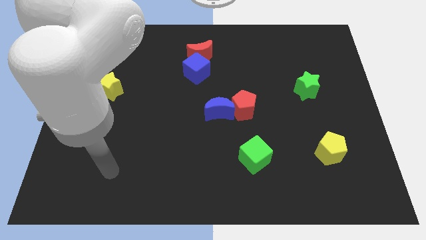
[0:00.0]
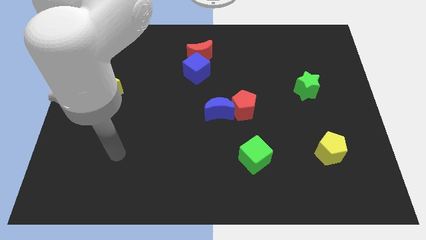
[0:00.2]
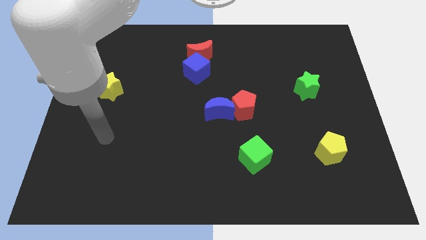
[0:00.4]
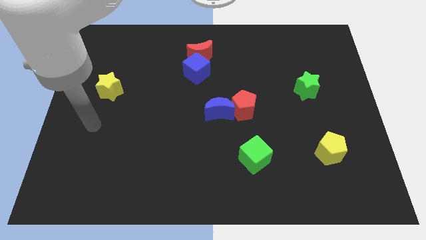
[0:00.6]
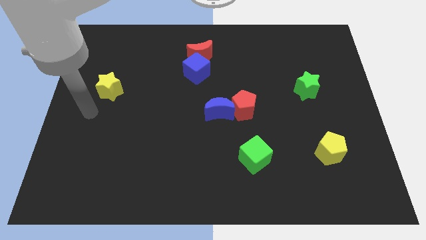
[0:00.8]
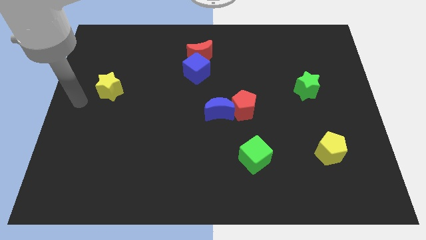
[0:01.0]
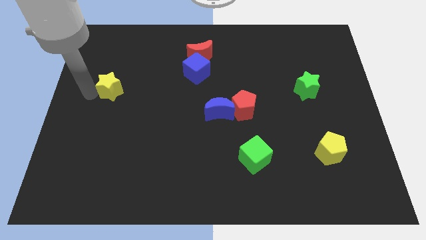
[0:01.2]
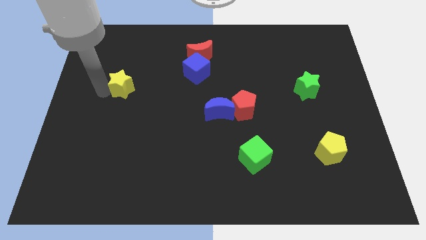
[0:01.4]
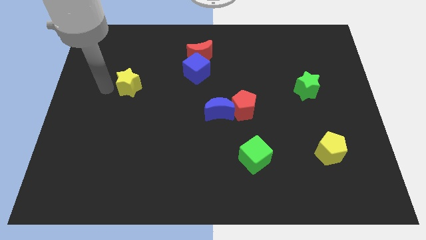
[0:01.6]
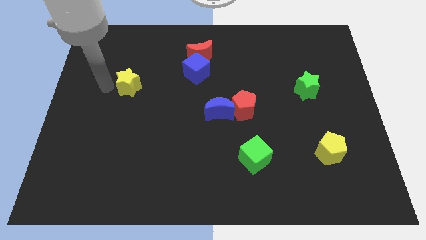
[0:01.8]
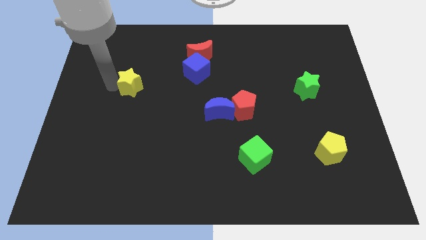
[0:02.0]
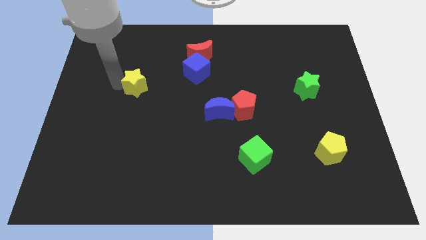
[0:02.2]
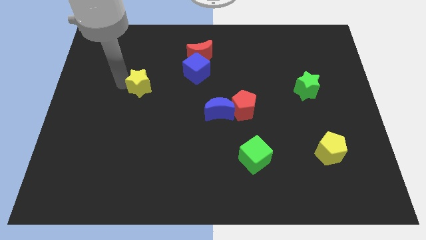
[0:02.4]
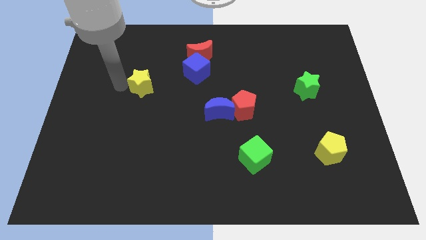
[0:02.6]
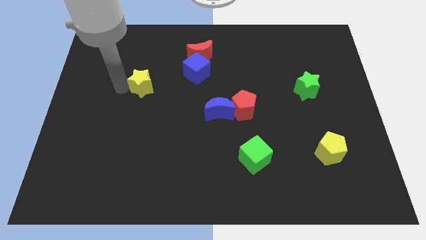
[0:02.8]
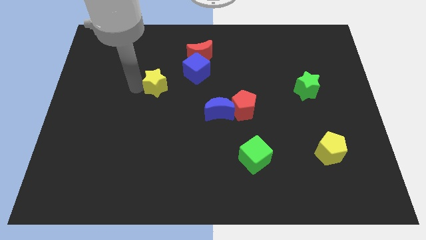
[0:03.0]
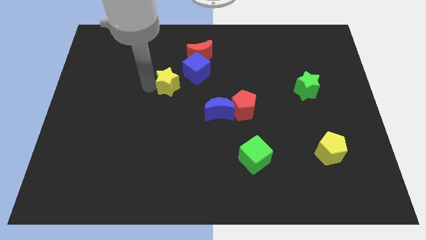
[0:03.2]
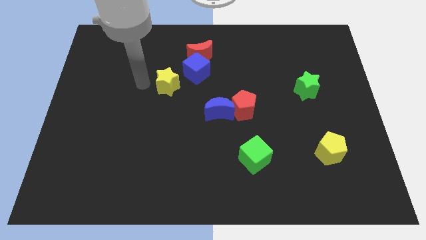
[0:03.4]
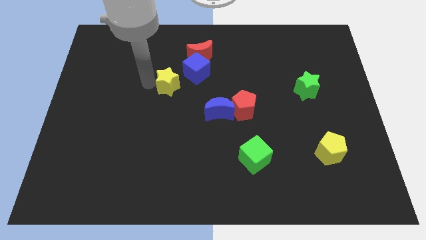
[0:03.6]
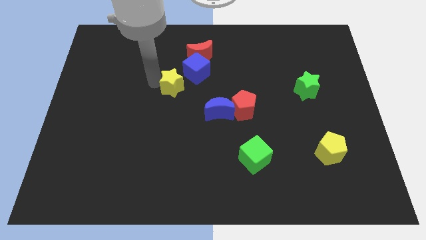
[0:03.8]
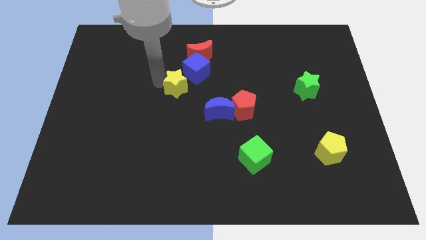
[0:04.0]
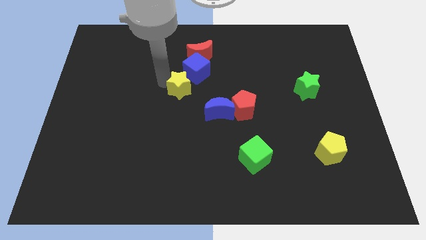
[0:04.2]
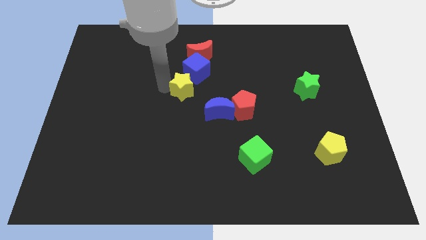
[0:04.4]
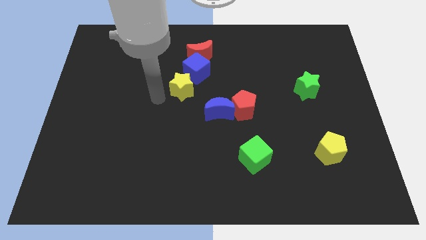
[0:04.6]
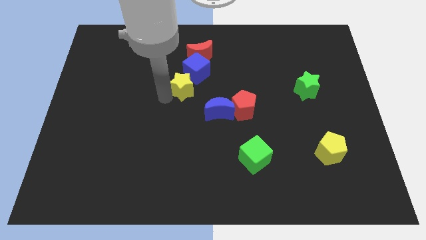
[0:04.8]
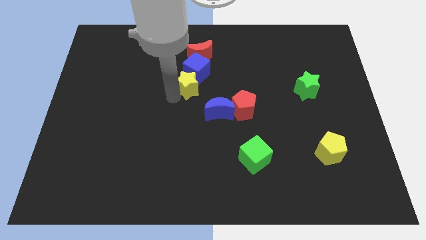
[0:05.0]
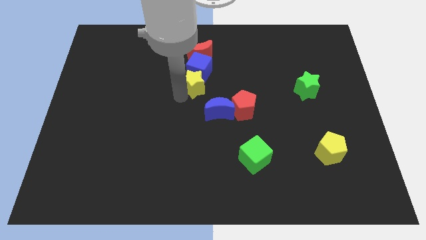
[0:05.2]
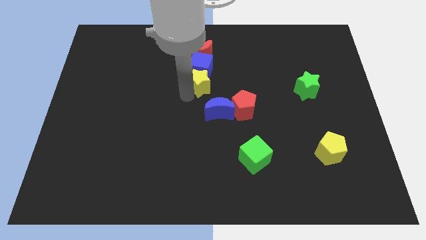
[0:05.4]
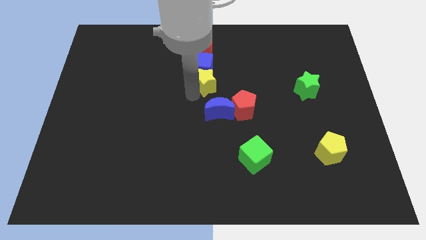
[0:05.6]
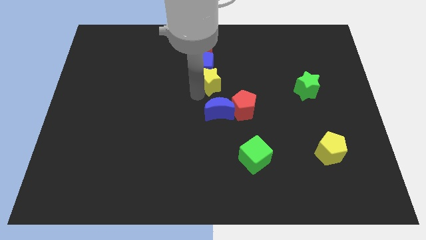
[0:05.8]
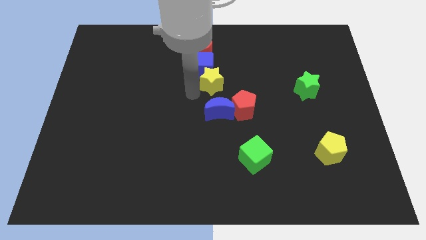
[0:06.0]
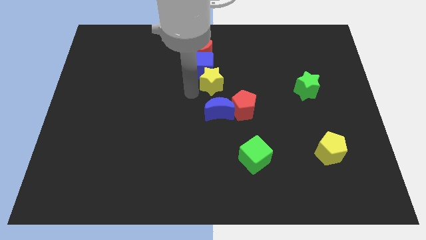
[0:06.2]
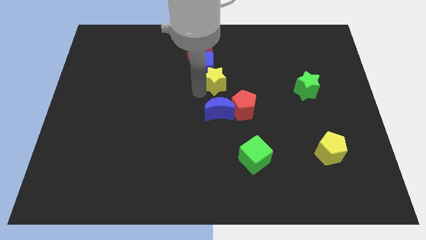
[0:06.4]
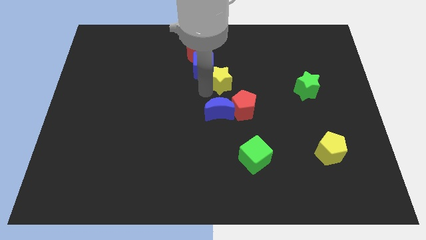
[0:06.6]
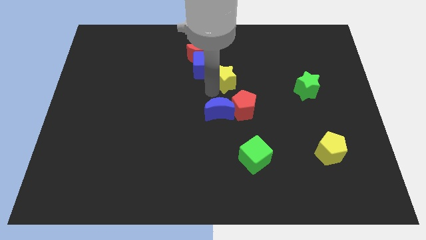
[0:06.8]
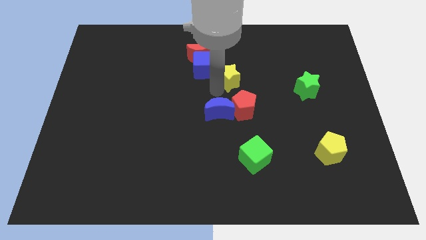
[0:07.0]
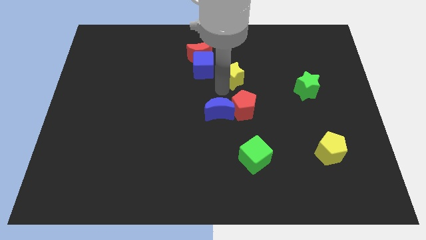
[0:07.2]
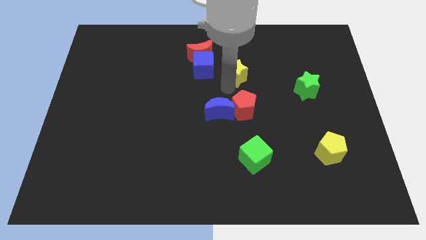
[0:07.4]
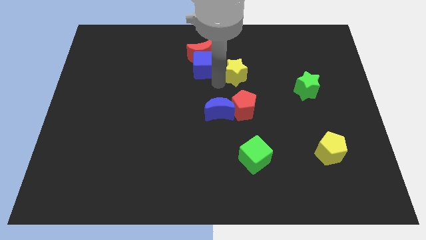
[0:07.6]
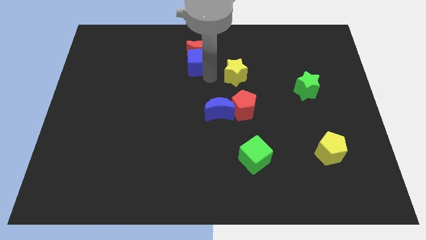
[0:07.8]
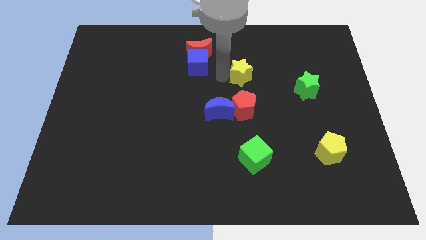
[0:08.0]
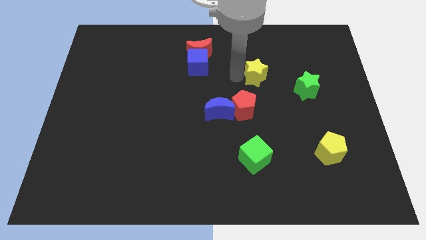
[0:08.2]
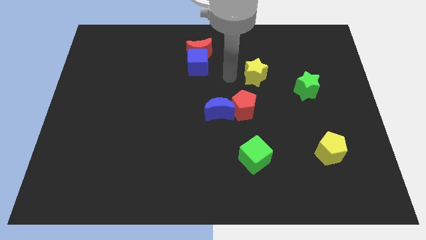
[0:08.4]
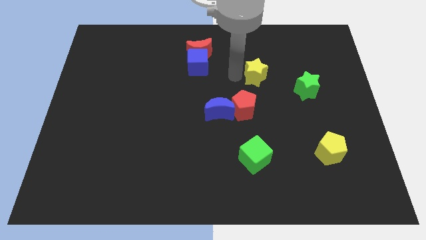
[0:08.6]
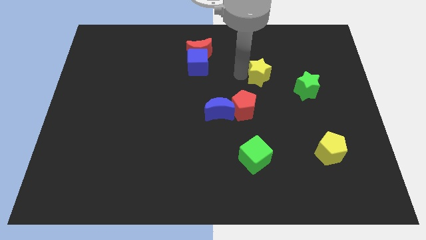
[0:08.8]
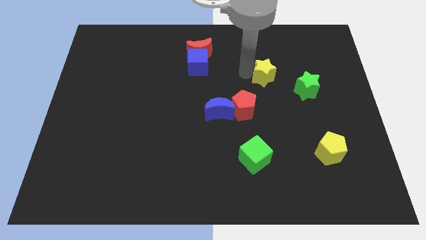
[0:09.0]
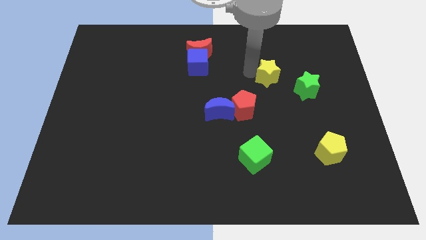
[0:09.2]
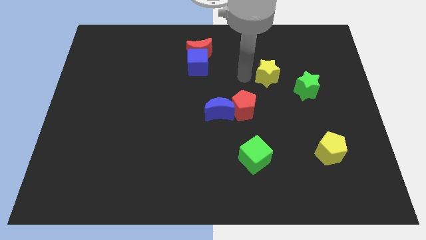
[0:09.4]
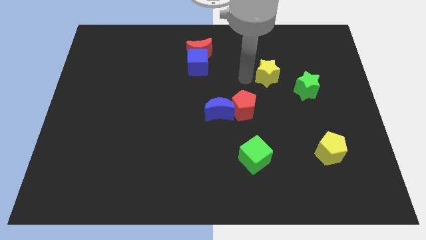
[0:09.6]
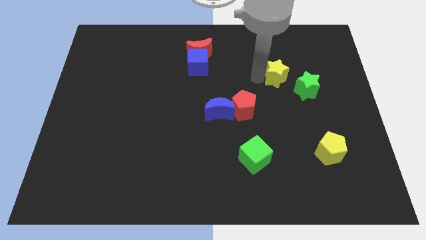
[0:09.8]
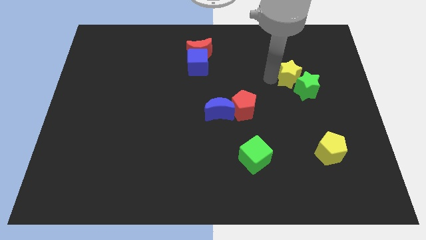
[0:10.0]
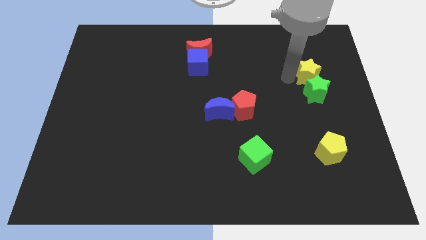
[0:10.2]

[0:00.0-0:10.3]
move the yellow star to the top right of the green star

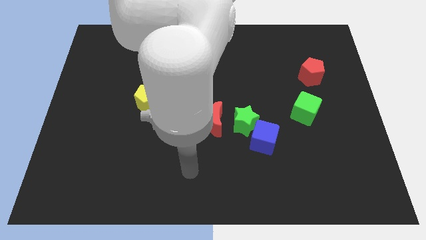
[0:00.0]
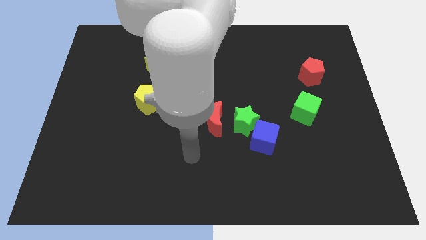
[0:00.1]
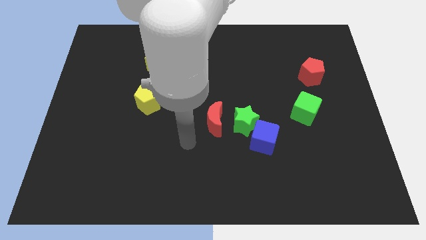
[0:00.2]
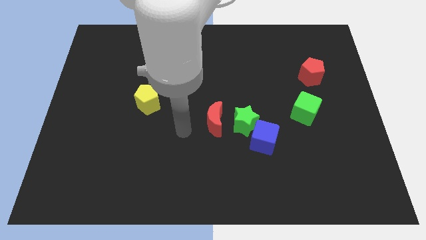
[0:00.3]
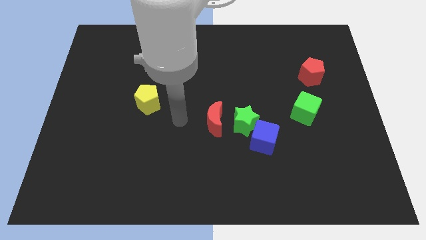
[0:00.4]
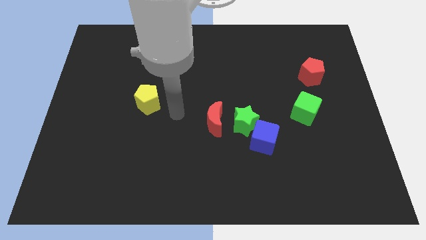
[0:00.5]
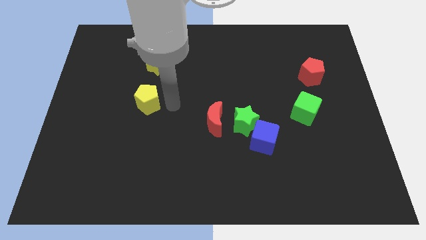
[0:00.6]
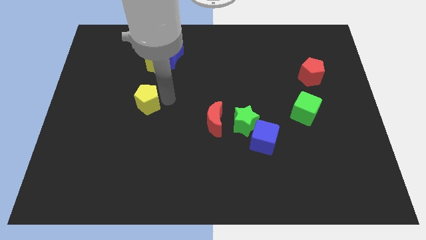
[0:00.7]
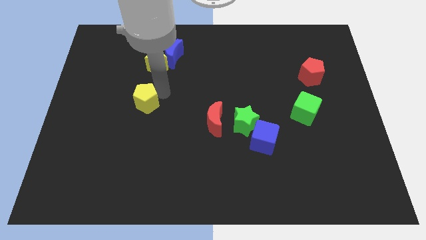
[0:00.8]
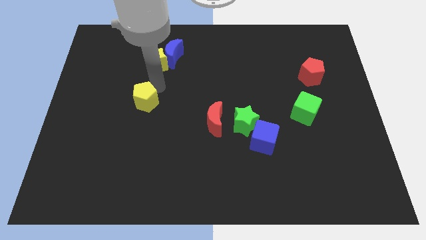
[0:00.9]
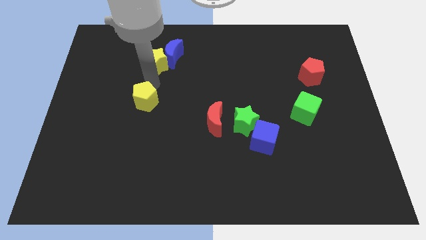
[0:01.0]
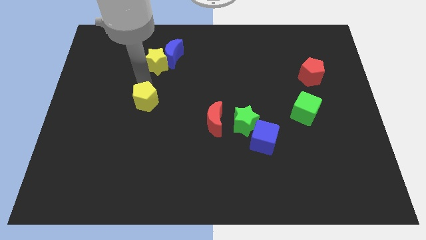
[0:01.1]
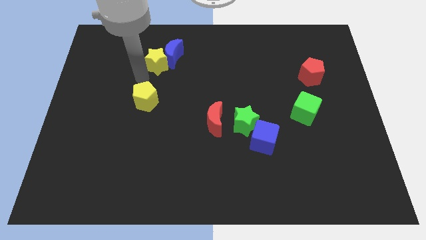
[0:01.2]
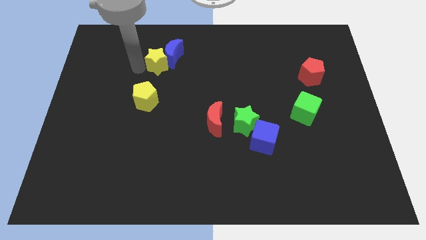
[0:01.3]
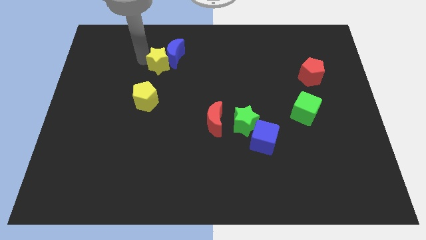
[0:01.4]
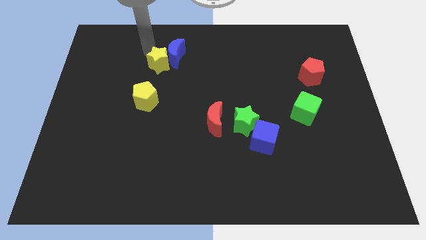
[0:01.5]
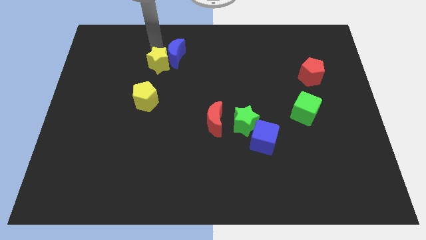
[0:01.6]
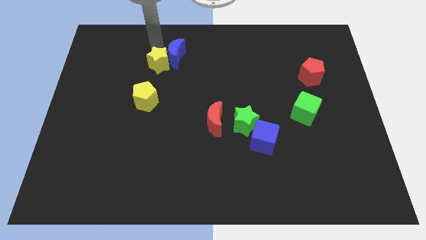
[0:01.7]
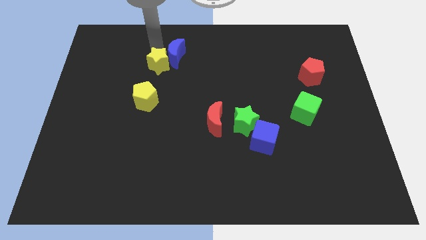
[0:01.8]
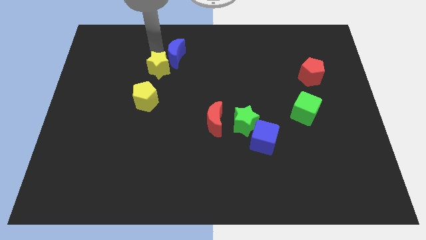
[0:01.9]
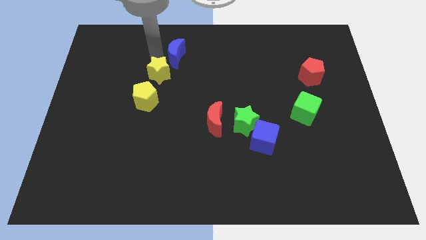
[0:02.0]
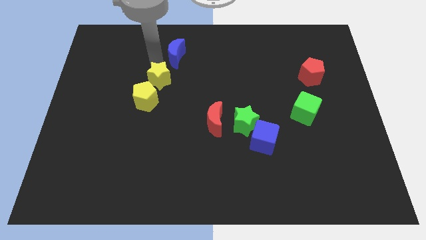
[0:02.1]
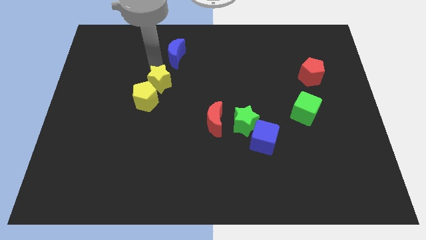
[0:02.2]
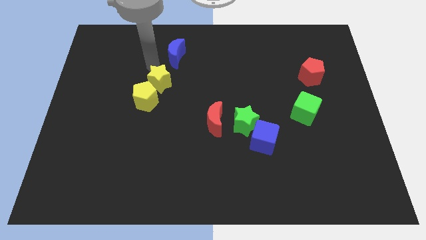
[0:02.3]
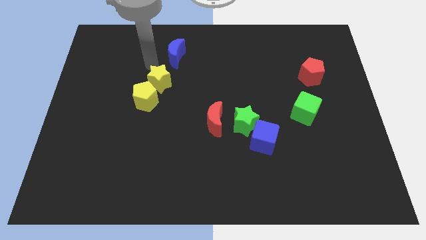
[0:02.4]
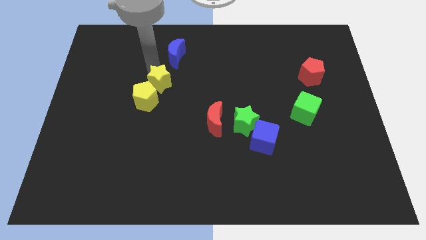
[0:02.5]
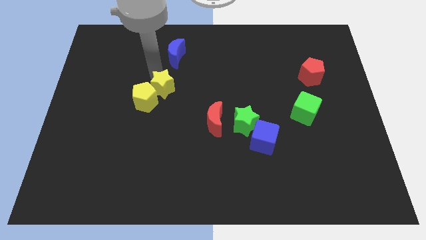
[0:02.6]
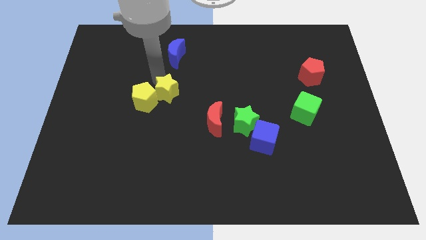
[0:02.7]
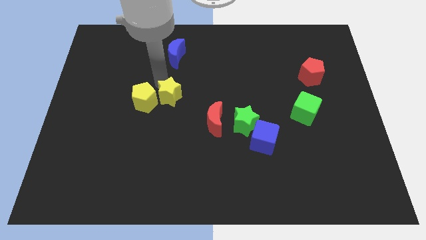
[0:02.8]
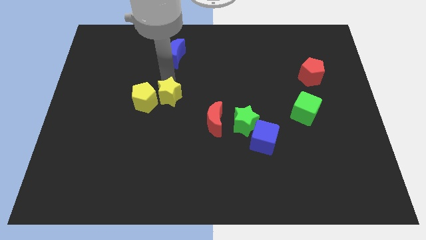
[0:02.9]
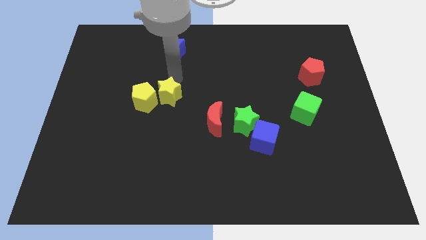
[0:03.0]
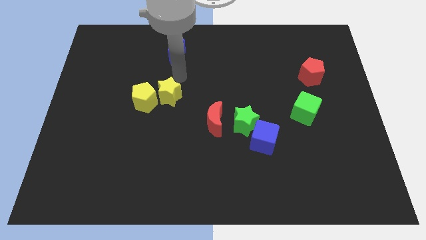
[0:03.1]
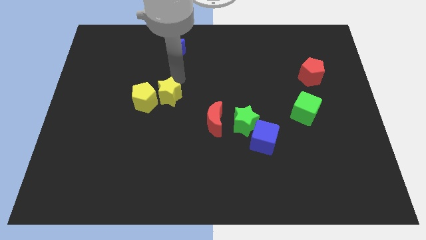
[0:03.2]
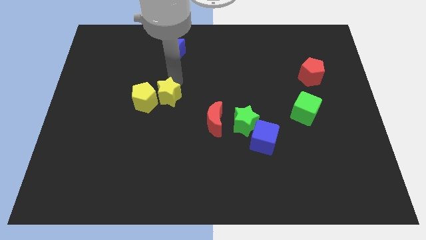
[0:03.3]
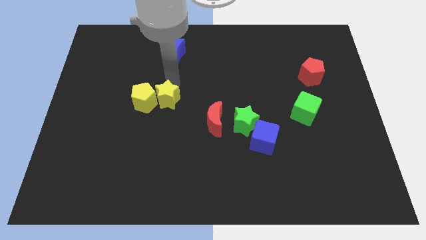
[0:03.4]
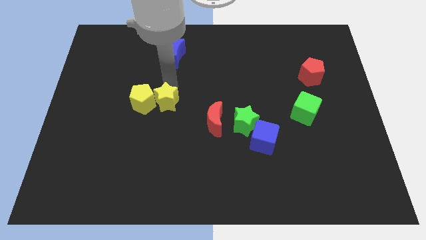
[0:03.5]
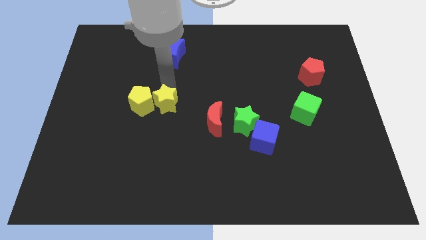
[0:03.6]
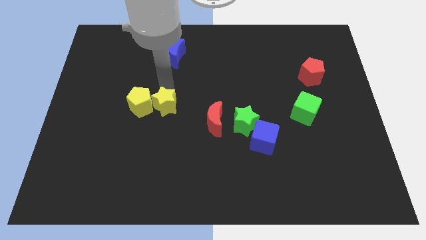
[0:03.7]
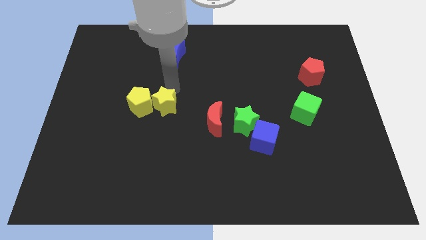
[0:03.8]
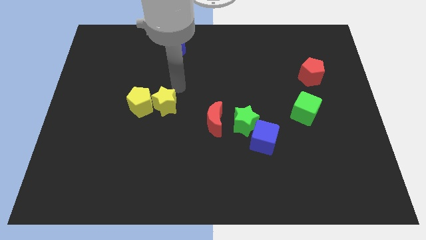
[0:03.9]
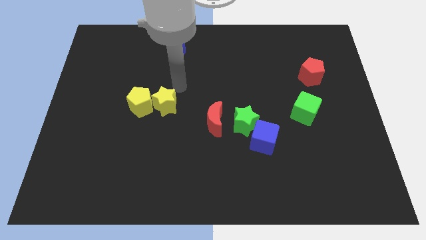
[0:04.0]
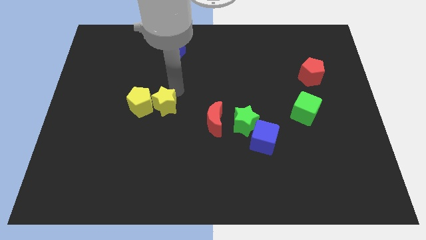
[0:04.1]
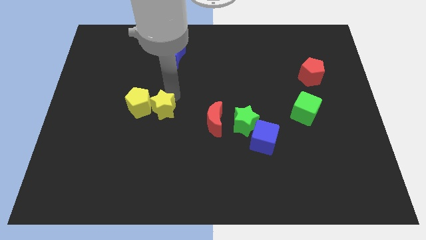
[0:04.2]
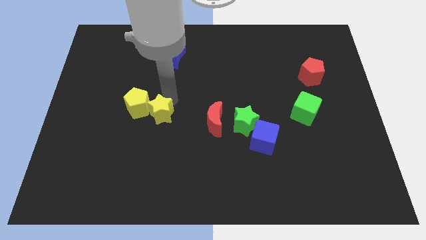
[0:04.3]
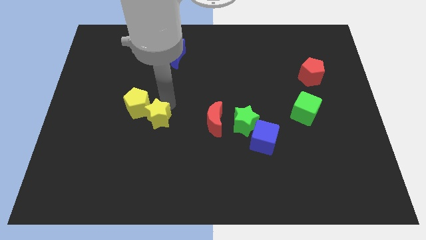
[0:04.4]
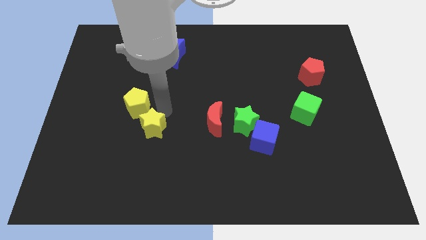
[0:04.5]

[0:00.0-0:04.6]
push the yellow star to the bottom side of the yellow pentagon
